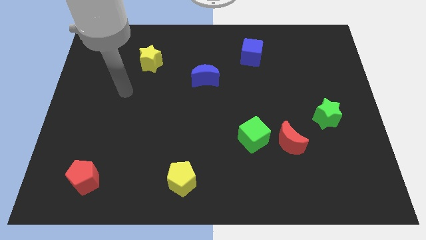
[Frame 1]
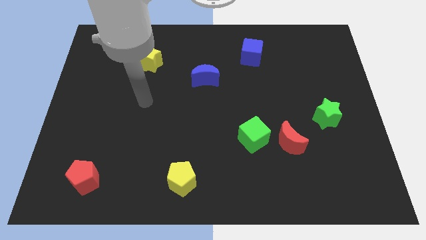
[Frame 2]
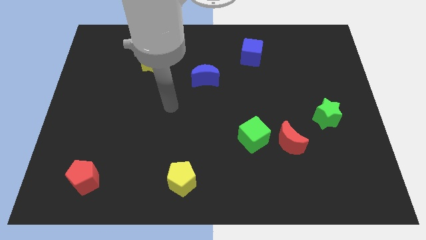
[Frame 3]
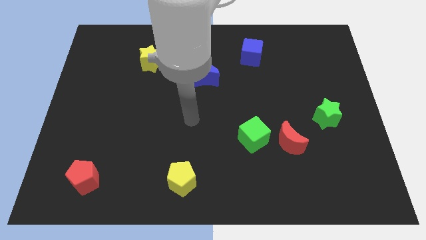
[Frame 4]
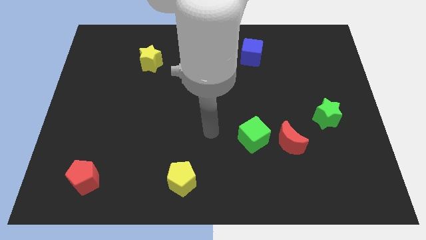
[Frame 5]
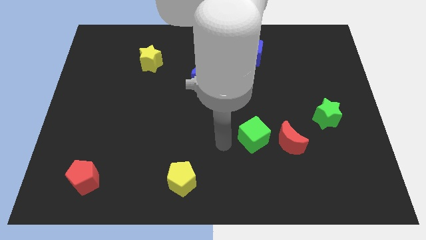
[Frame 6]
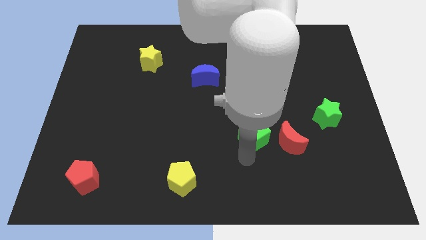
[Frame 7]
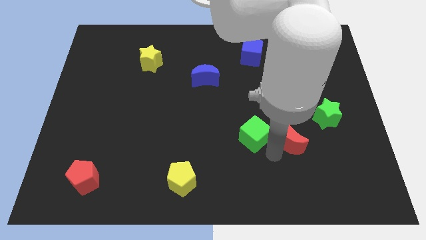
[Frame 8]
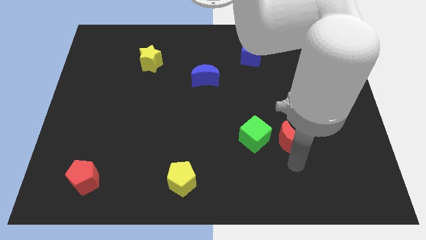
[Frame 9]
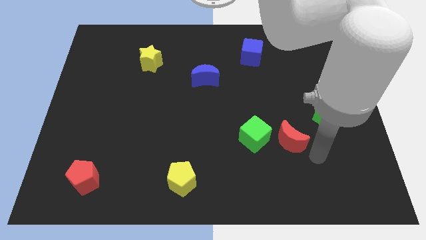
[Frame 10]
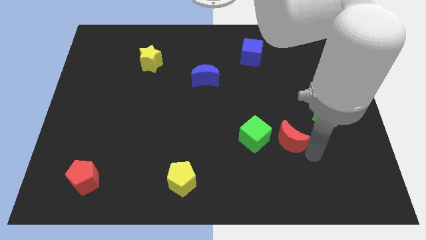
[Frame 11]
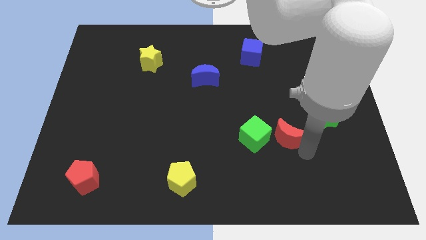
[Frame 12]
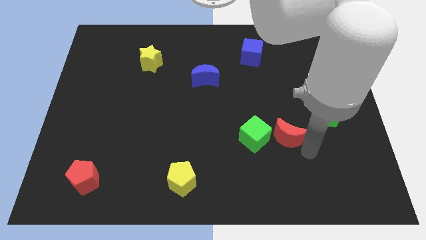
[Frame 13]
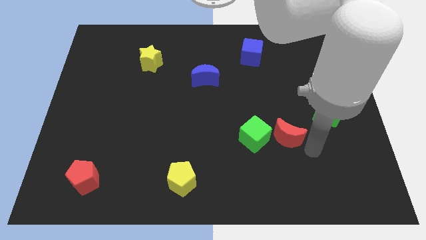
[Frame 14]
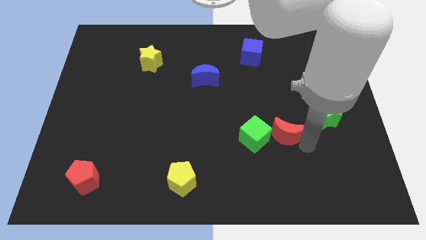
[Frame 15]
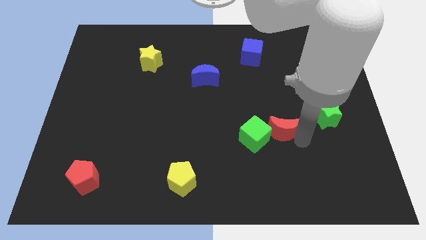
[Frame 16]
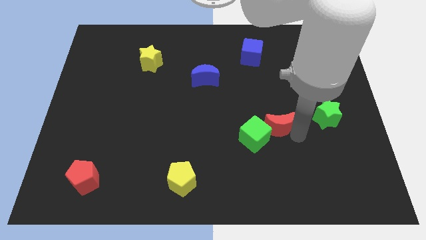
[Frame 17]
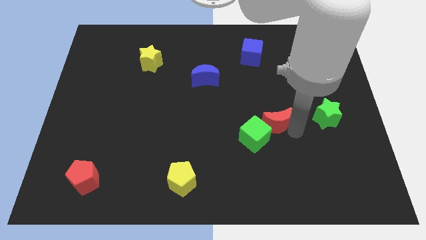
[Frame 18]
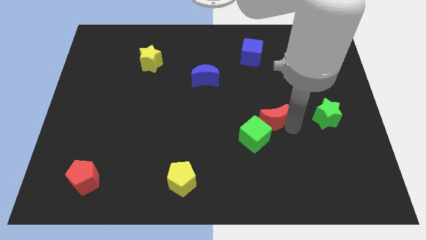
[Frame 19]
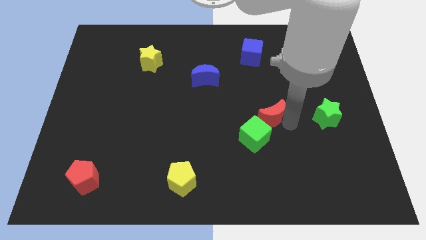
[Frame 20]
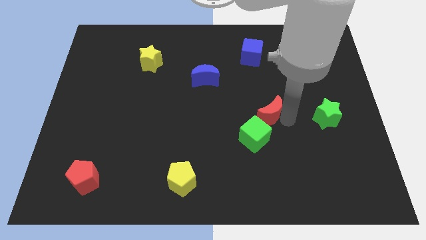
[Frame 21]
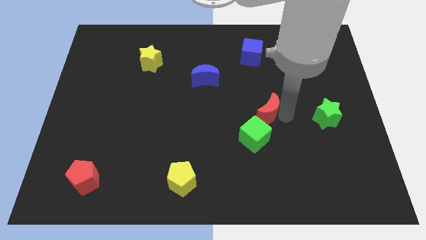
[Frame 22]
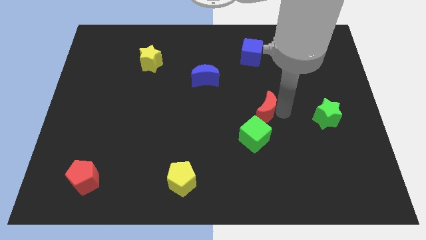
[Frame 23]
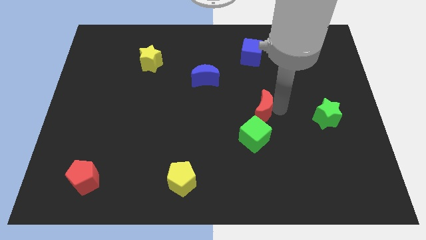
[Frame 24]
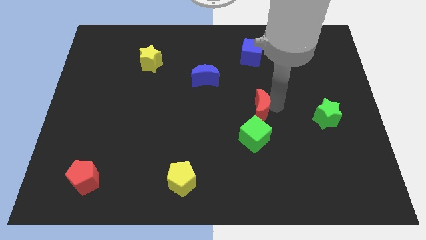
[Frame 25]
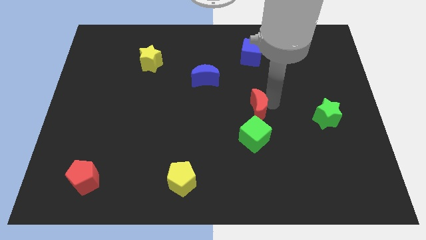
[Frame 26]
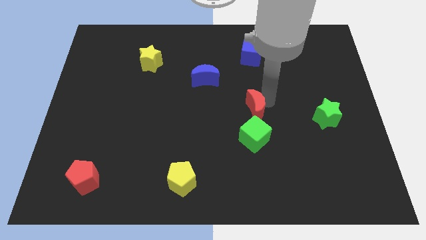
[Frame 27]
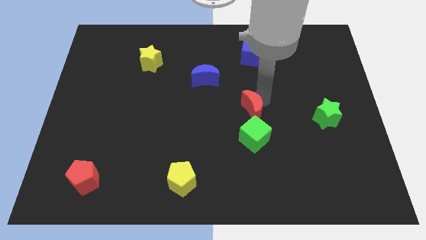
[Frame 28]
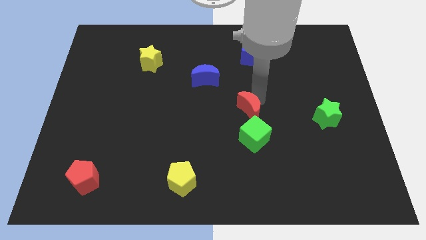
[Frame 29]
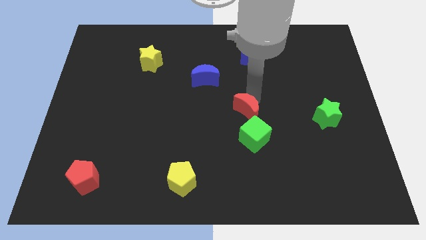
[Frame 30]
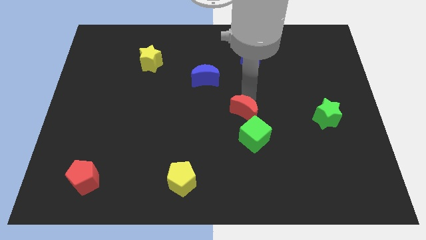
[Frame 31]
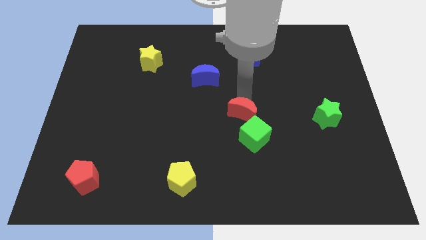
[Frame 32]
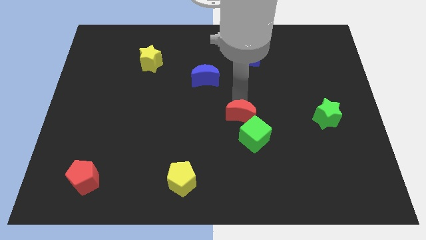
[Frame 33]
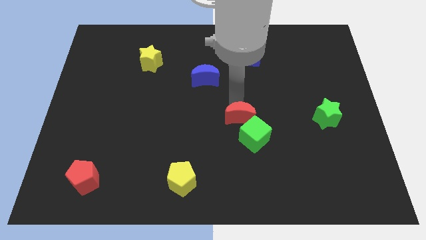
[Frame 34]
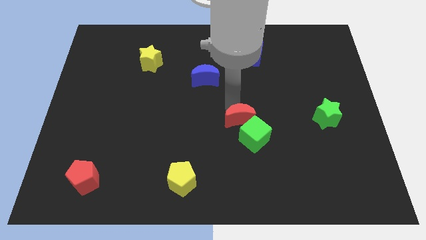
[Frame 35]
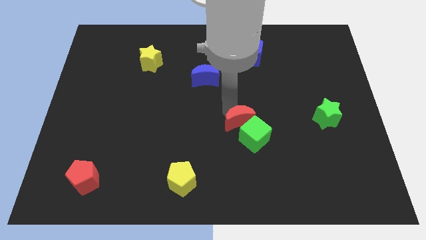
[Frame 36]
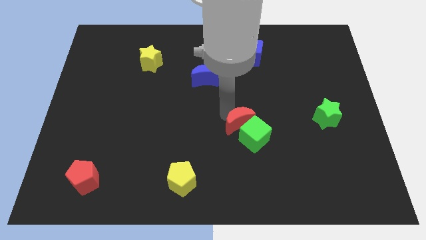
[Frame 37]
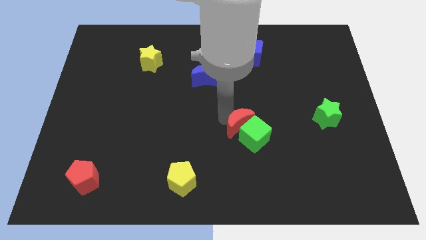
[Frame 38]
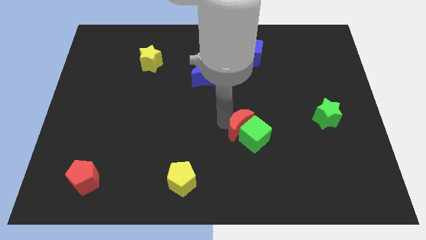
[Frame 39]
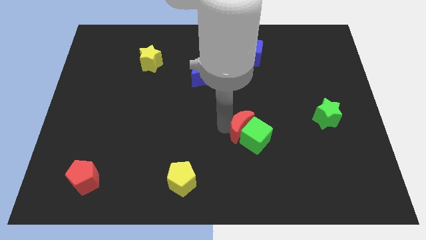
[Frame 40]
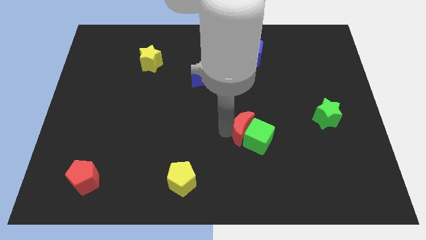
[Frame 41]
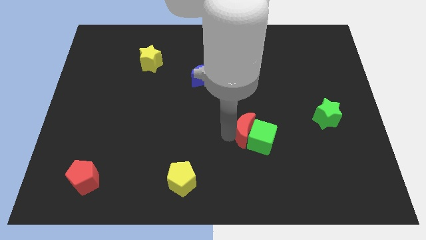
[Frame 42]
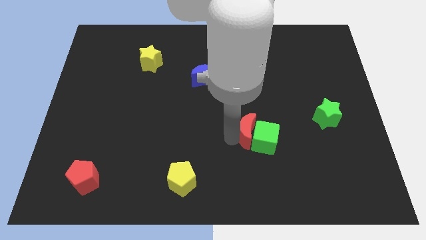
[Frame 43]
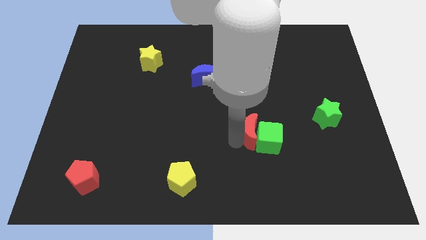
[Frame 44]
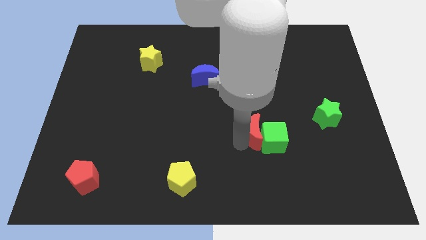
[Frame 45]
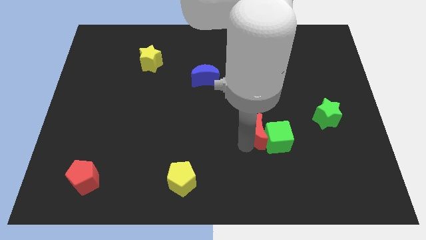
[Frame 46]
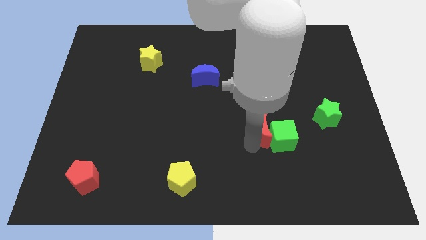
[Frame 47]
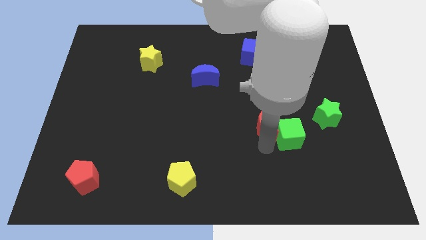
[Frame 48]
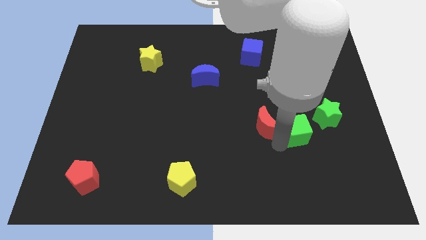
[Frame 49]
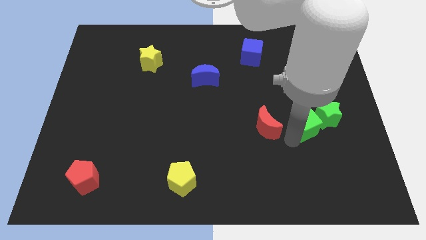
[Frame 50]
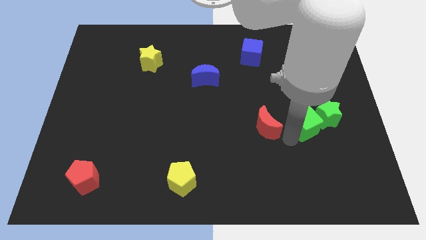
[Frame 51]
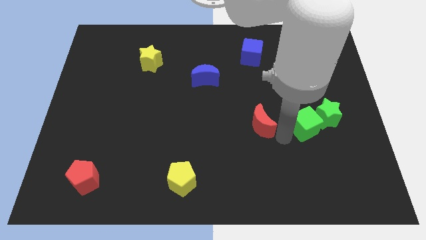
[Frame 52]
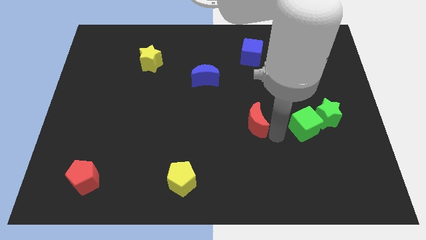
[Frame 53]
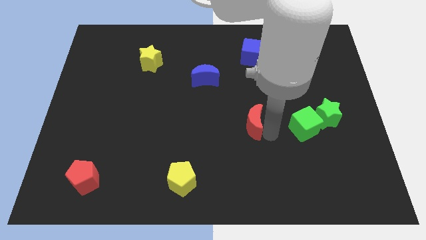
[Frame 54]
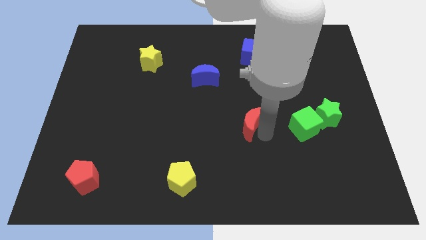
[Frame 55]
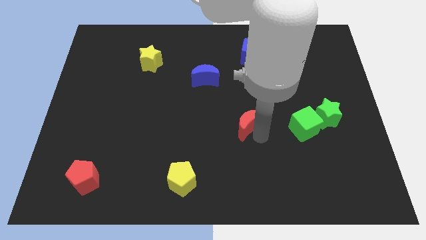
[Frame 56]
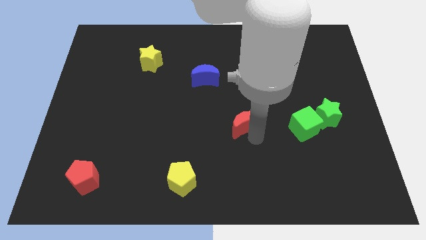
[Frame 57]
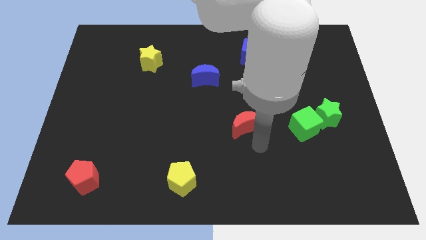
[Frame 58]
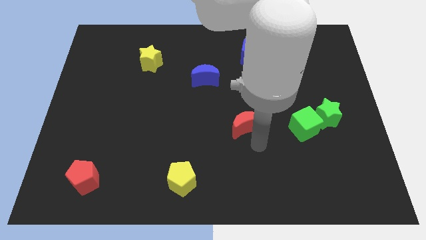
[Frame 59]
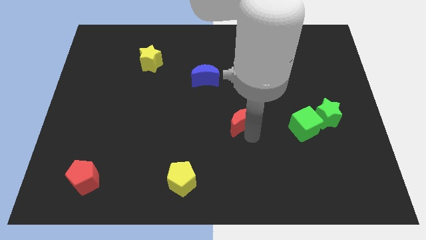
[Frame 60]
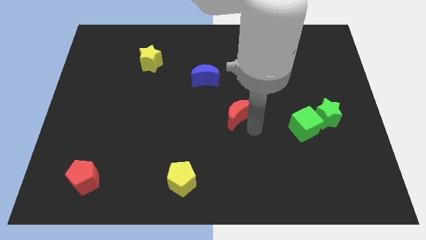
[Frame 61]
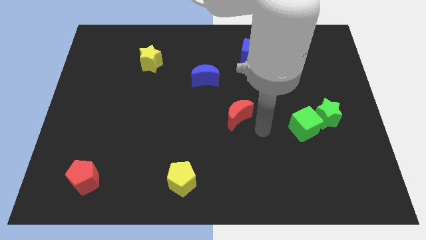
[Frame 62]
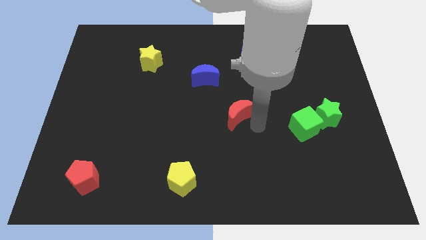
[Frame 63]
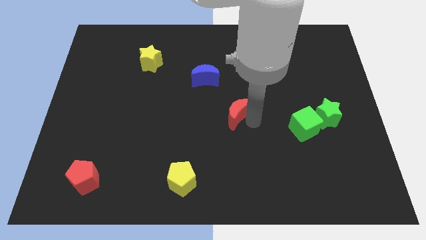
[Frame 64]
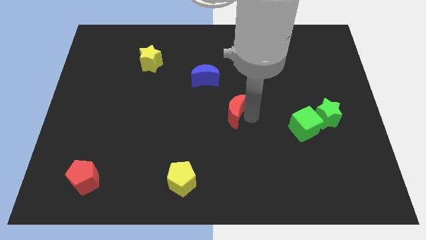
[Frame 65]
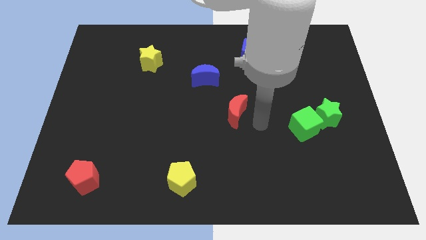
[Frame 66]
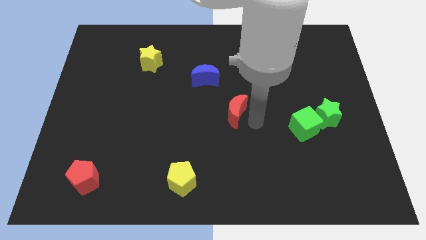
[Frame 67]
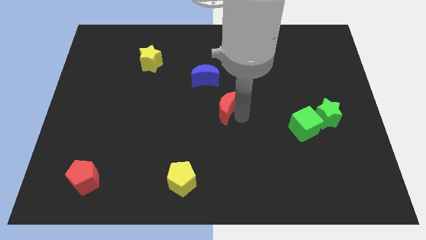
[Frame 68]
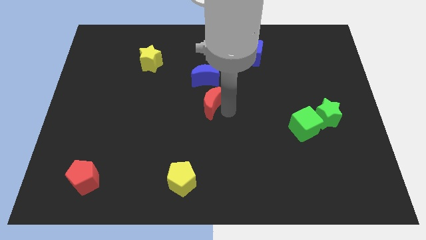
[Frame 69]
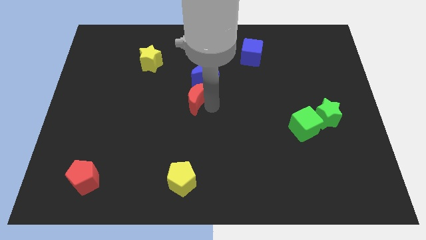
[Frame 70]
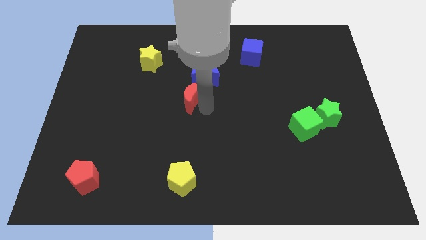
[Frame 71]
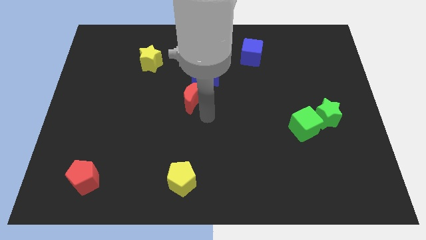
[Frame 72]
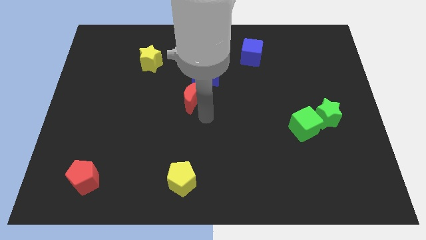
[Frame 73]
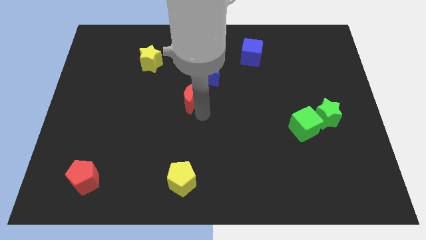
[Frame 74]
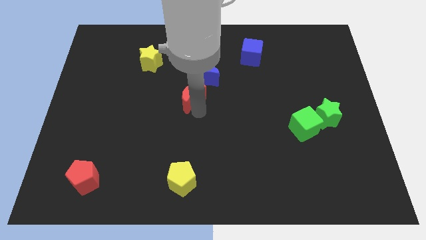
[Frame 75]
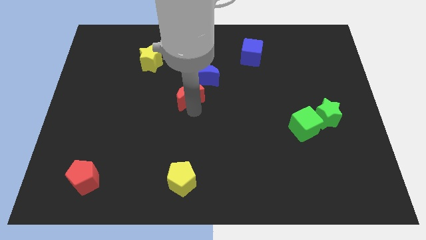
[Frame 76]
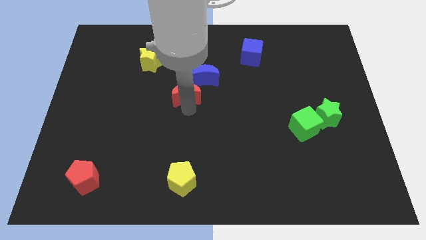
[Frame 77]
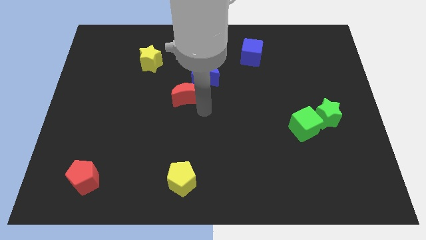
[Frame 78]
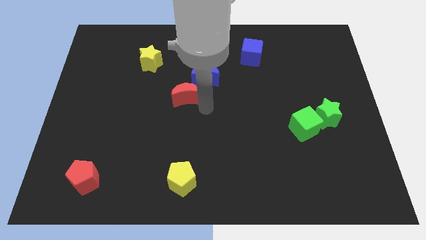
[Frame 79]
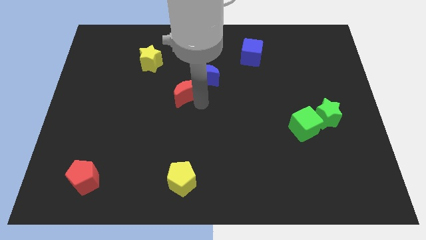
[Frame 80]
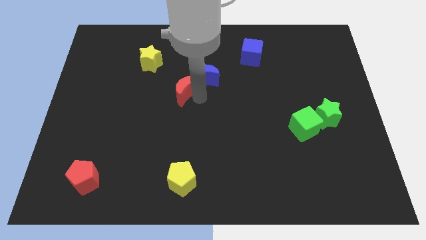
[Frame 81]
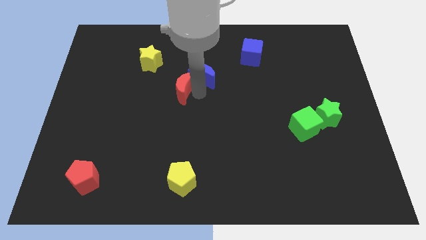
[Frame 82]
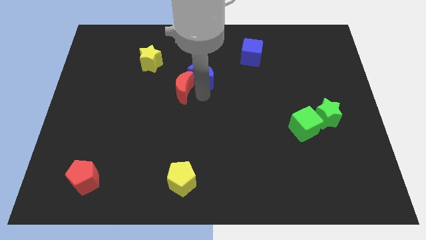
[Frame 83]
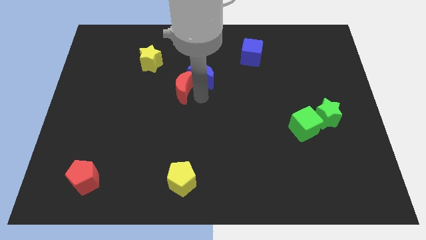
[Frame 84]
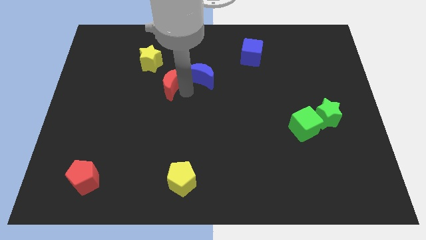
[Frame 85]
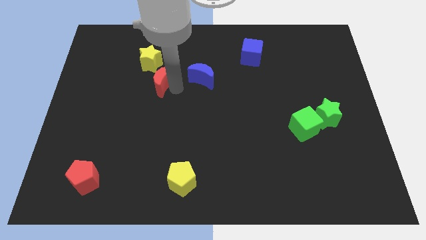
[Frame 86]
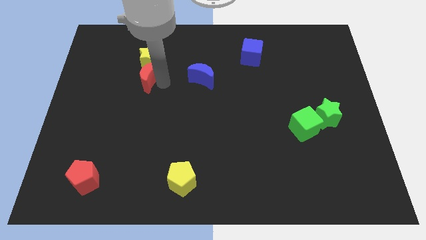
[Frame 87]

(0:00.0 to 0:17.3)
push the red moon to the bottom left side of the yellow star
